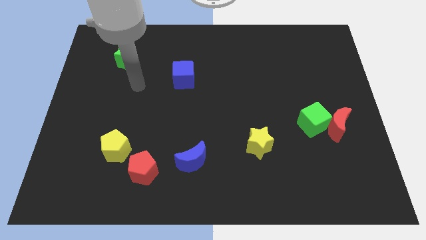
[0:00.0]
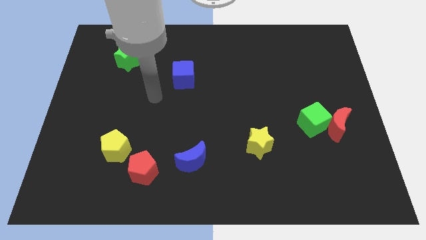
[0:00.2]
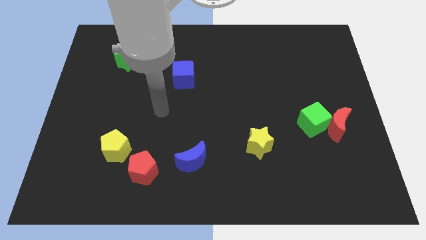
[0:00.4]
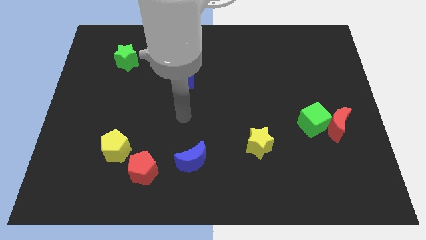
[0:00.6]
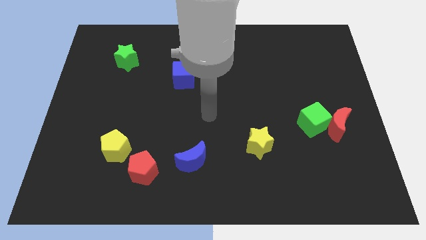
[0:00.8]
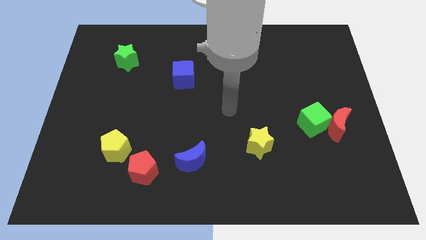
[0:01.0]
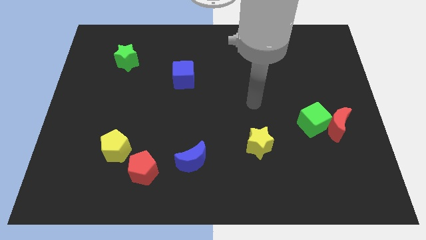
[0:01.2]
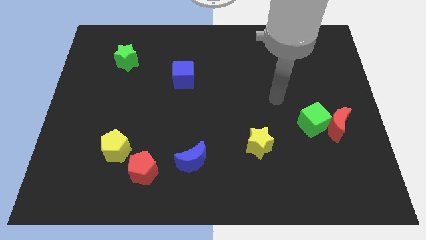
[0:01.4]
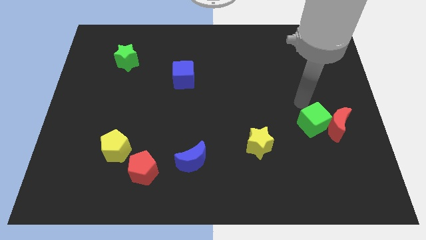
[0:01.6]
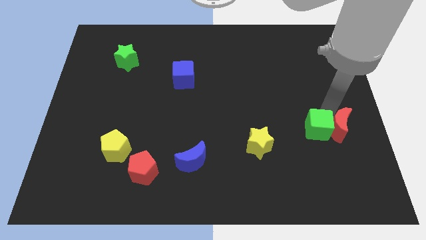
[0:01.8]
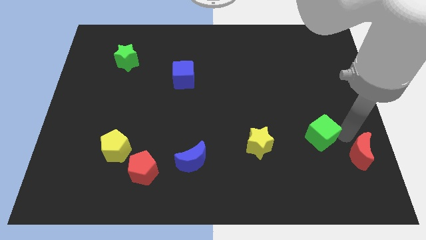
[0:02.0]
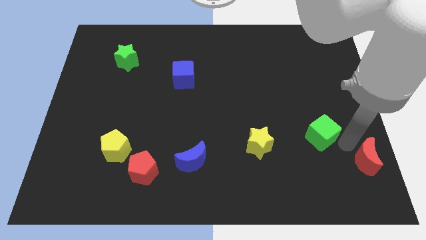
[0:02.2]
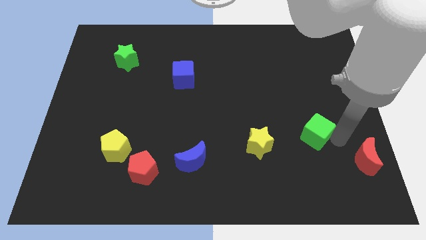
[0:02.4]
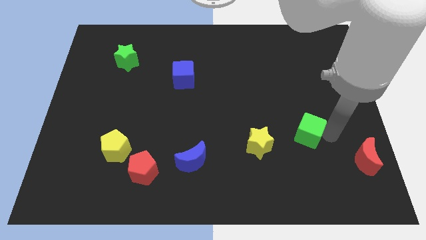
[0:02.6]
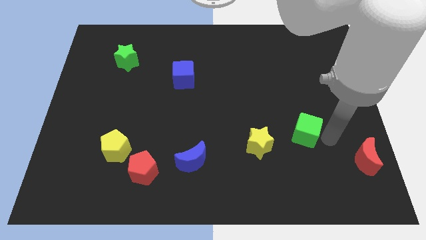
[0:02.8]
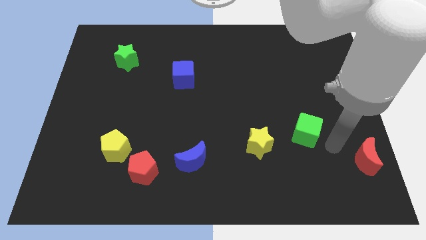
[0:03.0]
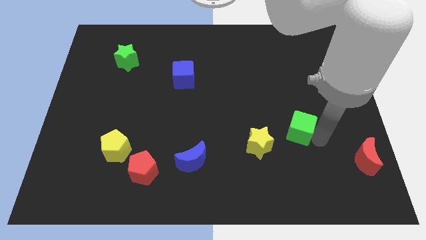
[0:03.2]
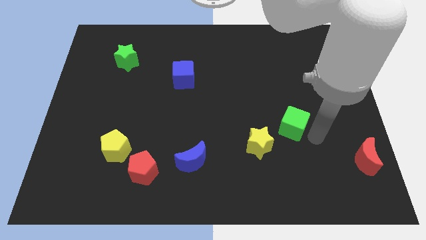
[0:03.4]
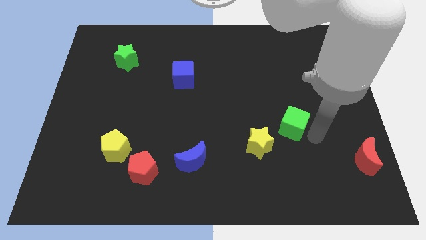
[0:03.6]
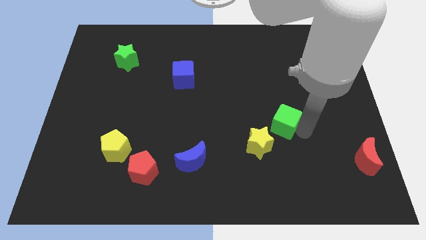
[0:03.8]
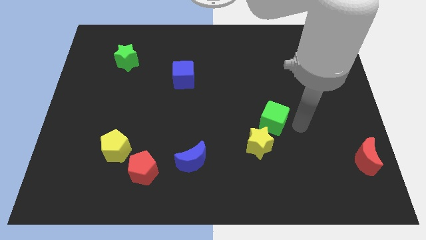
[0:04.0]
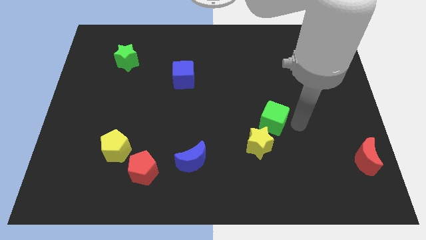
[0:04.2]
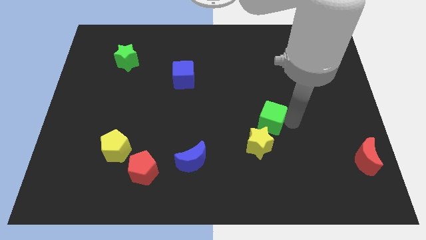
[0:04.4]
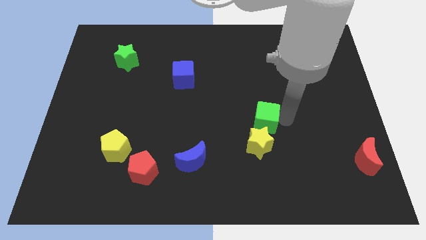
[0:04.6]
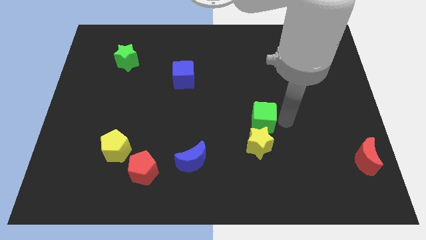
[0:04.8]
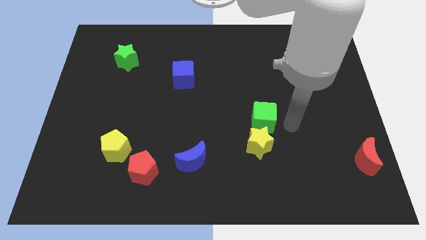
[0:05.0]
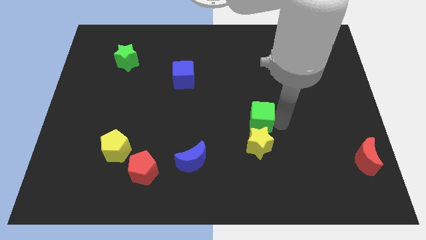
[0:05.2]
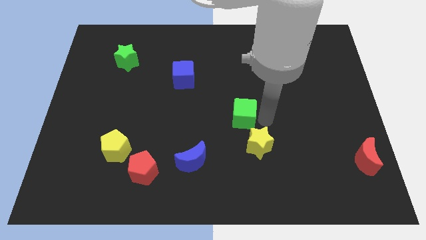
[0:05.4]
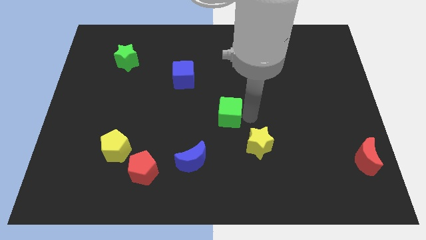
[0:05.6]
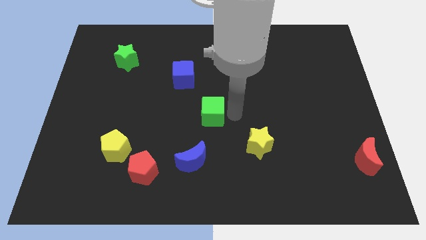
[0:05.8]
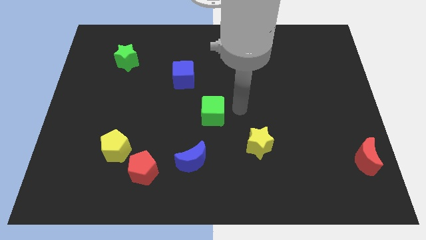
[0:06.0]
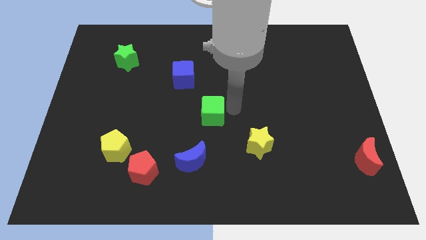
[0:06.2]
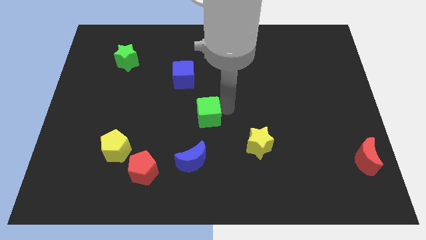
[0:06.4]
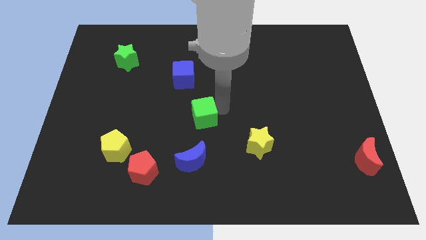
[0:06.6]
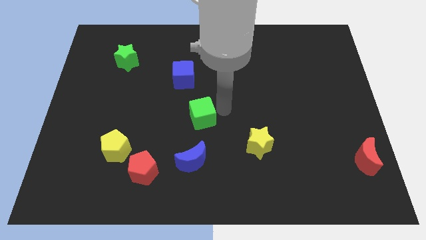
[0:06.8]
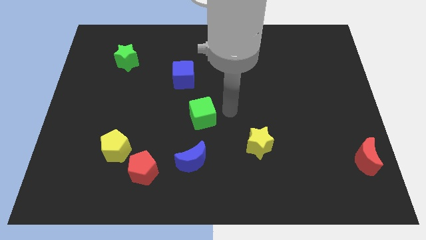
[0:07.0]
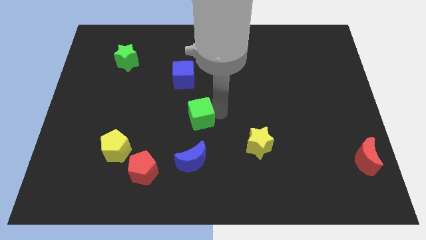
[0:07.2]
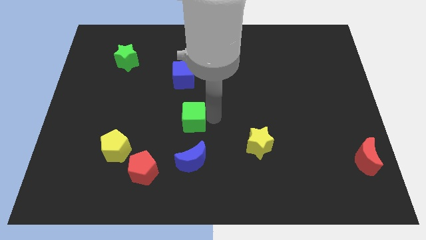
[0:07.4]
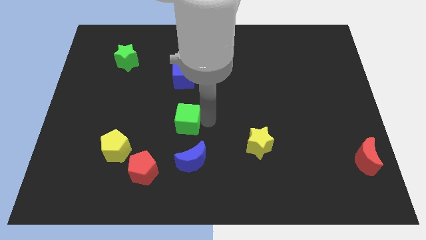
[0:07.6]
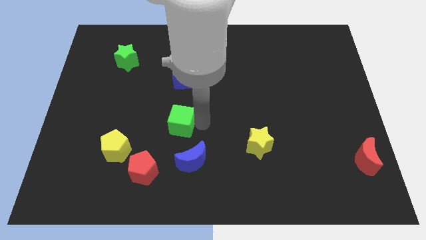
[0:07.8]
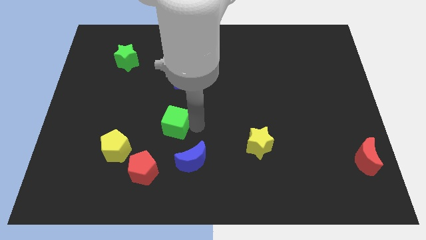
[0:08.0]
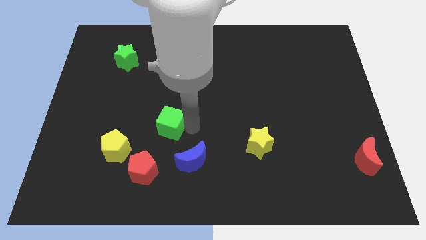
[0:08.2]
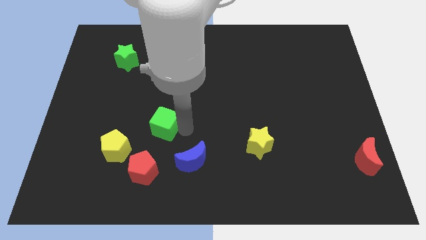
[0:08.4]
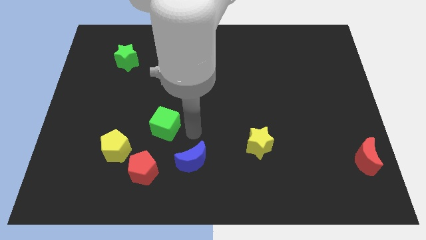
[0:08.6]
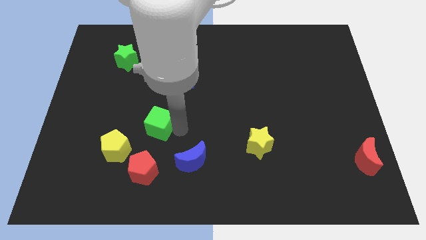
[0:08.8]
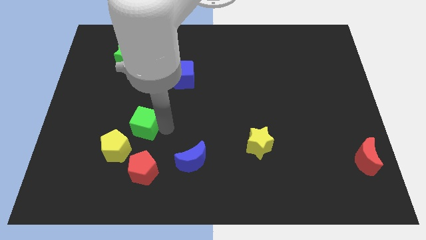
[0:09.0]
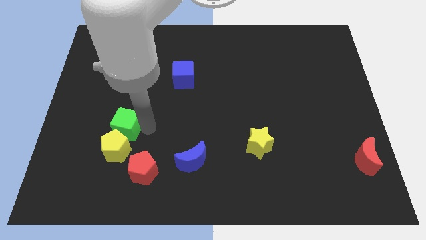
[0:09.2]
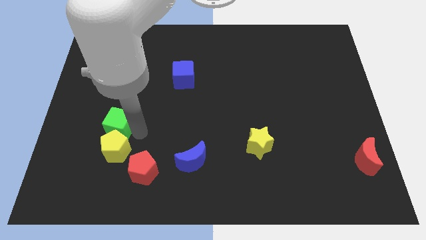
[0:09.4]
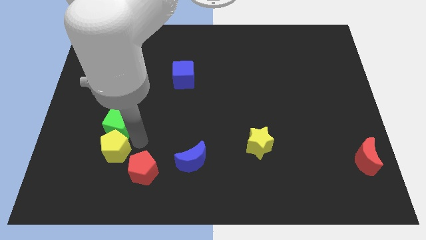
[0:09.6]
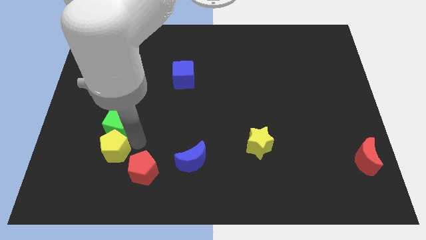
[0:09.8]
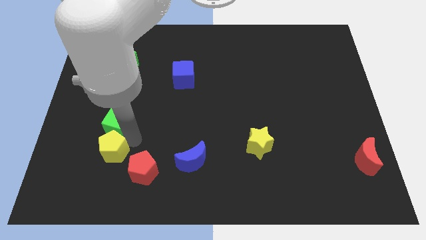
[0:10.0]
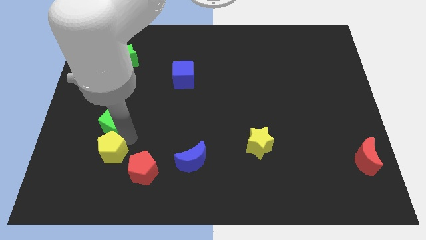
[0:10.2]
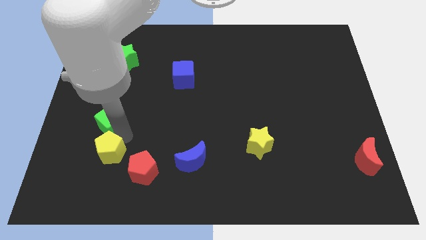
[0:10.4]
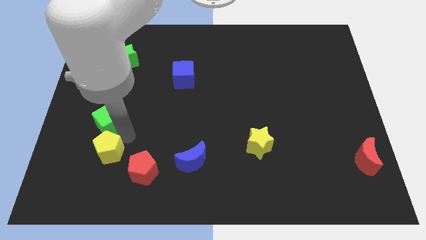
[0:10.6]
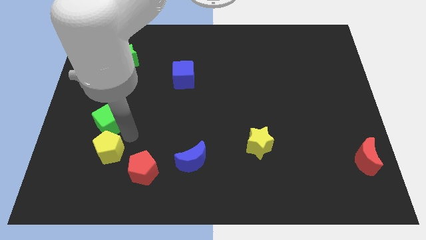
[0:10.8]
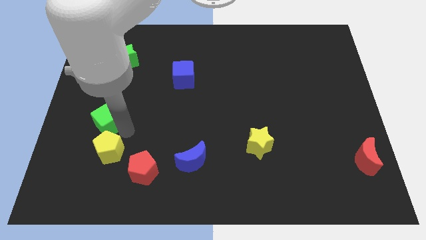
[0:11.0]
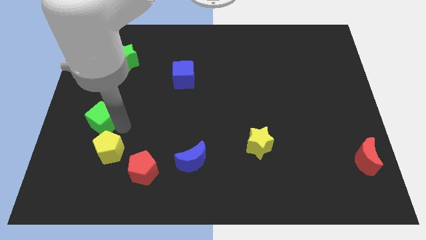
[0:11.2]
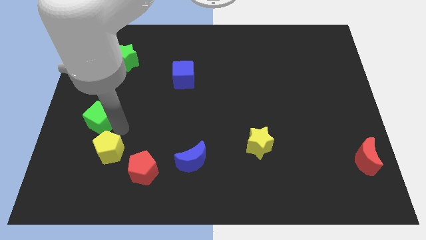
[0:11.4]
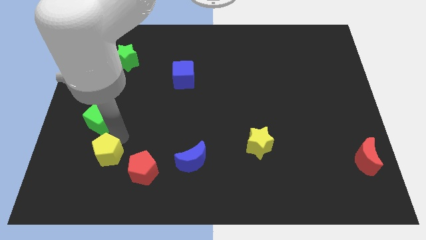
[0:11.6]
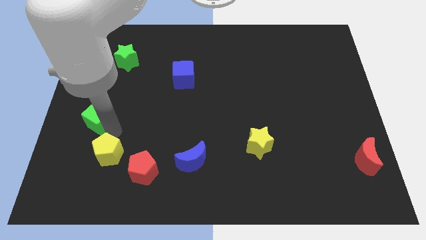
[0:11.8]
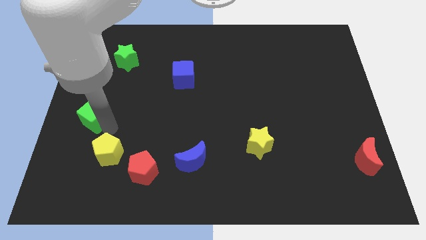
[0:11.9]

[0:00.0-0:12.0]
push the green cube to the left side
